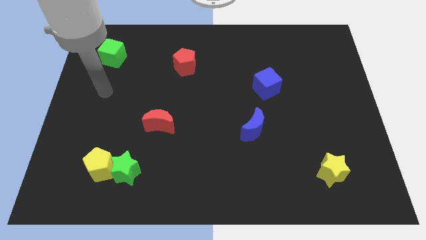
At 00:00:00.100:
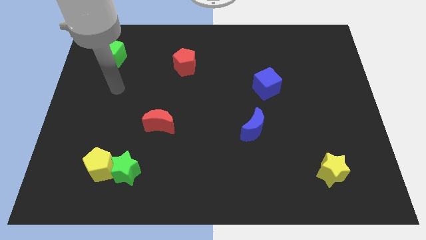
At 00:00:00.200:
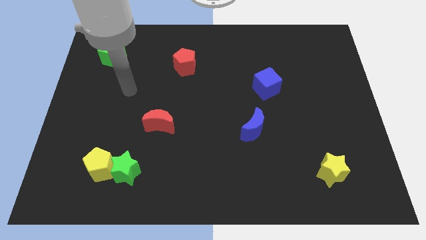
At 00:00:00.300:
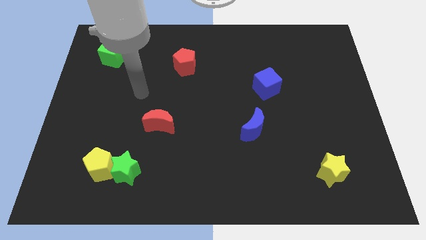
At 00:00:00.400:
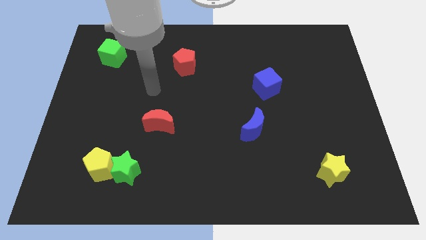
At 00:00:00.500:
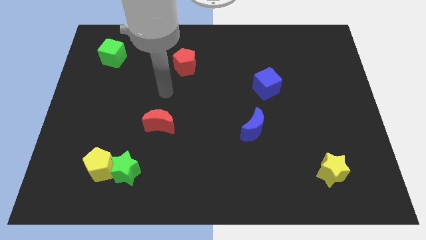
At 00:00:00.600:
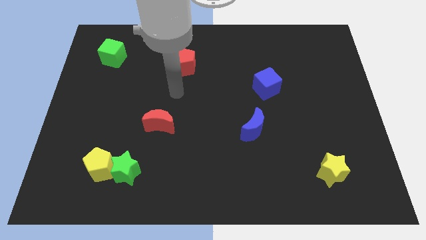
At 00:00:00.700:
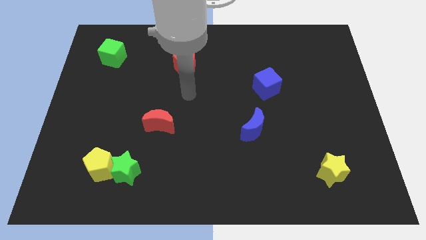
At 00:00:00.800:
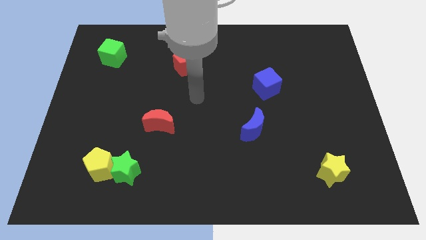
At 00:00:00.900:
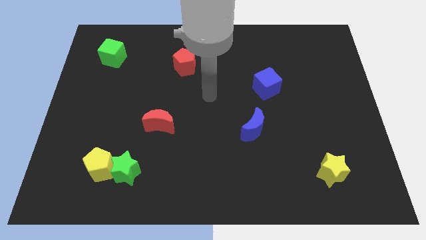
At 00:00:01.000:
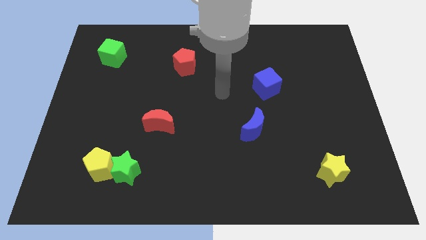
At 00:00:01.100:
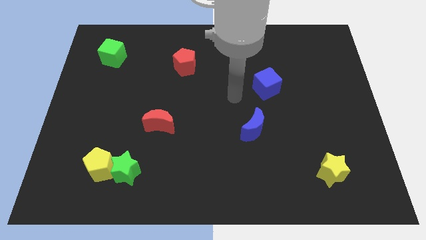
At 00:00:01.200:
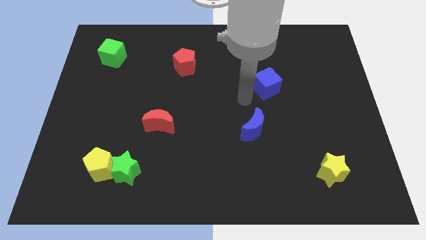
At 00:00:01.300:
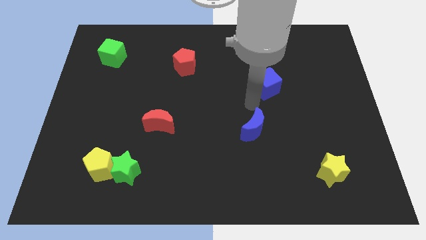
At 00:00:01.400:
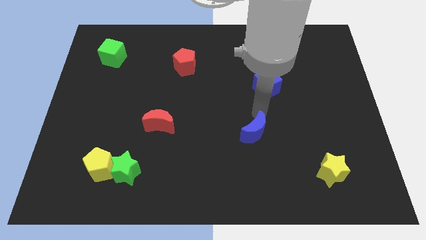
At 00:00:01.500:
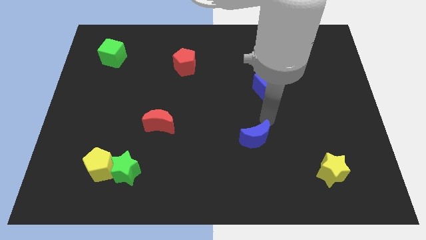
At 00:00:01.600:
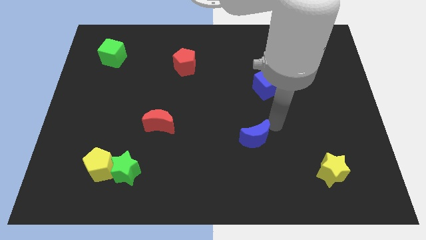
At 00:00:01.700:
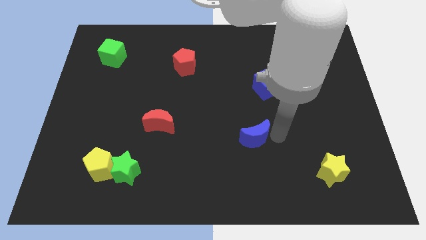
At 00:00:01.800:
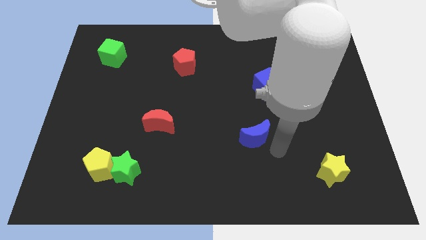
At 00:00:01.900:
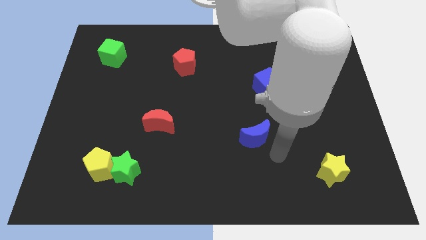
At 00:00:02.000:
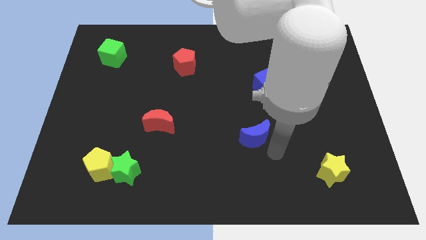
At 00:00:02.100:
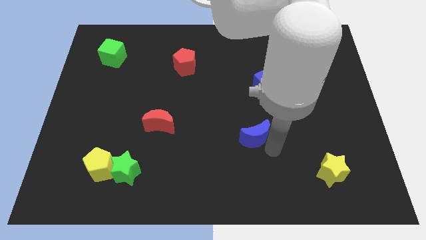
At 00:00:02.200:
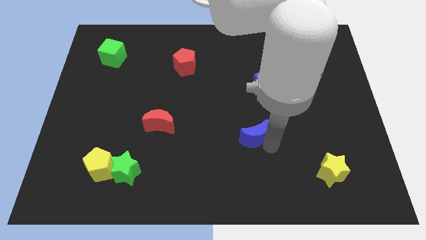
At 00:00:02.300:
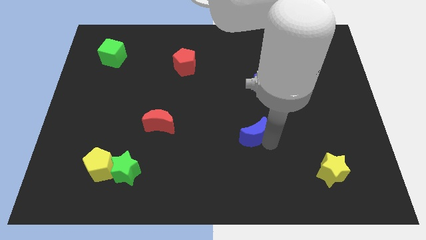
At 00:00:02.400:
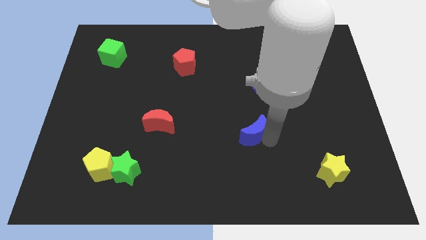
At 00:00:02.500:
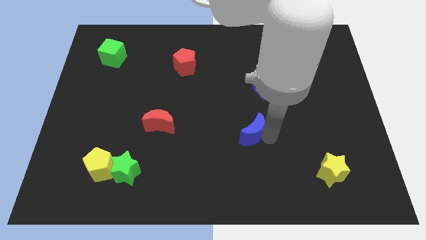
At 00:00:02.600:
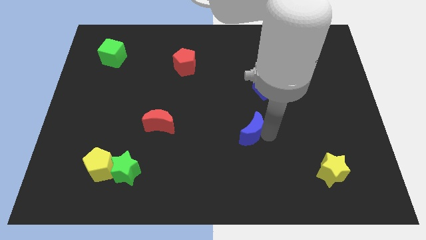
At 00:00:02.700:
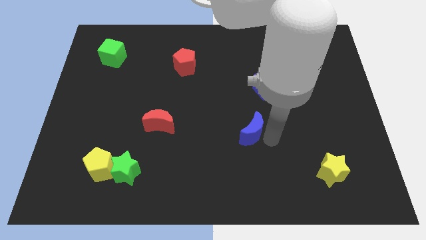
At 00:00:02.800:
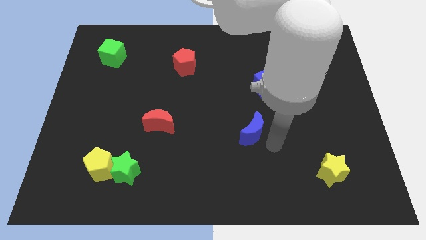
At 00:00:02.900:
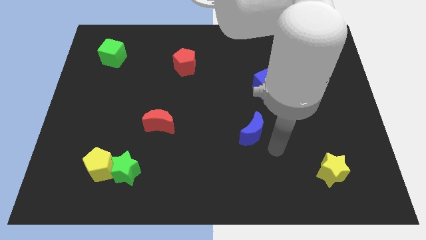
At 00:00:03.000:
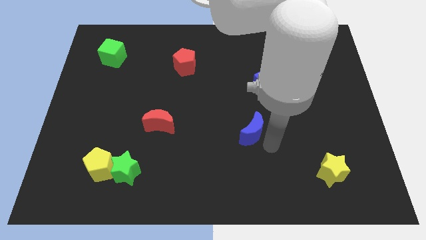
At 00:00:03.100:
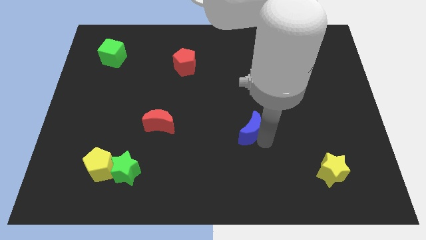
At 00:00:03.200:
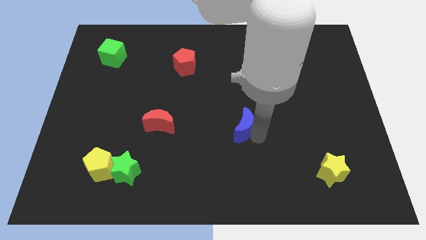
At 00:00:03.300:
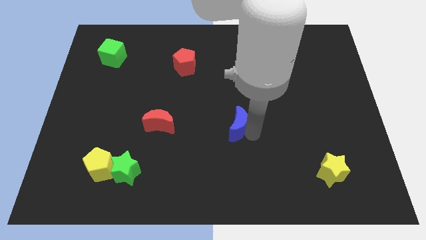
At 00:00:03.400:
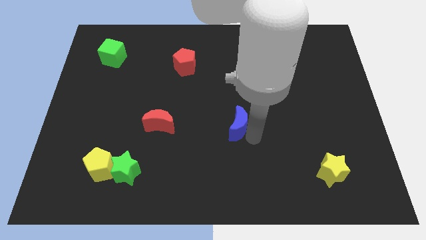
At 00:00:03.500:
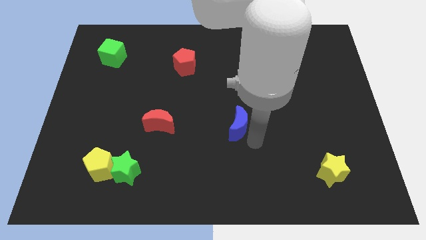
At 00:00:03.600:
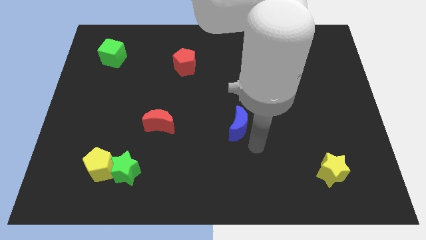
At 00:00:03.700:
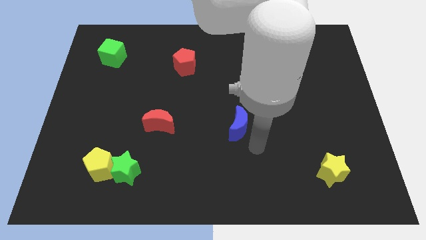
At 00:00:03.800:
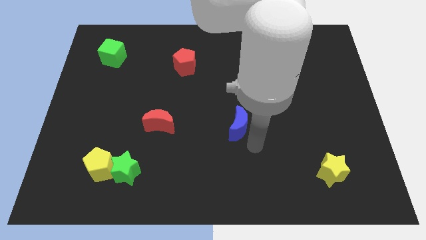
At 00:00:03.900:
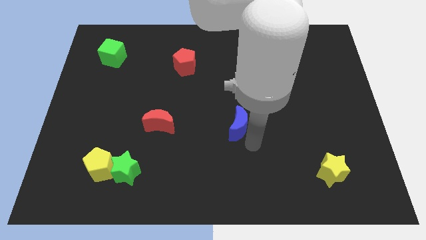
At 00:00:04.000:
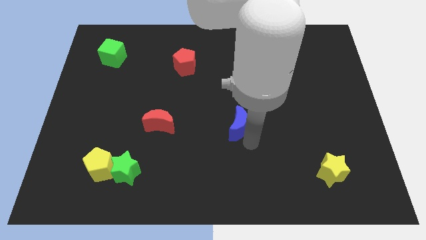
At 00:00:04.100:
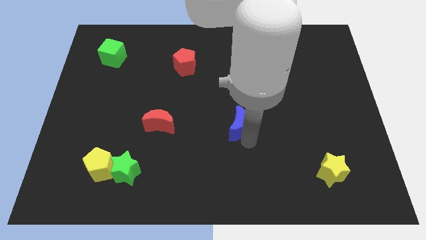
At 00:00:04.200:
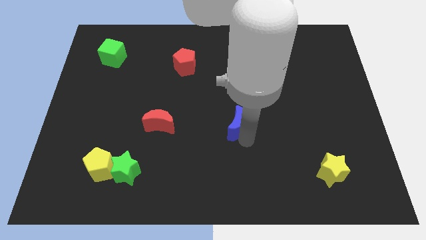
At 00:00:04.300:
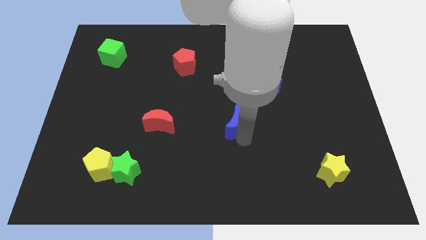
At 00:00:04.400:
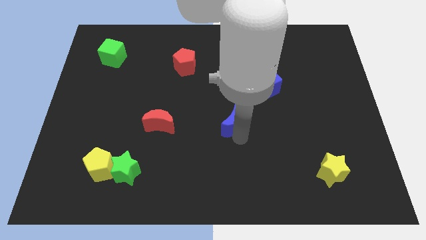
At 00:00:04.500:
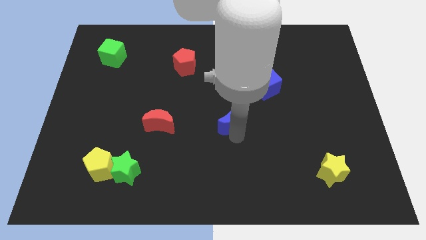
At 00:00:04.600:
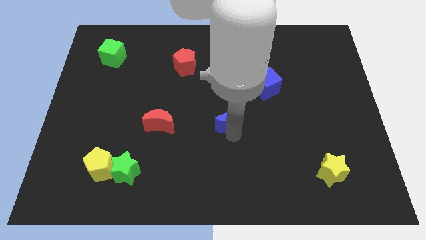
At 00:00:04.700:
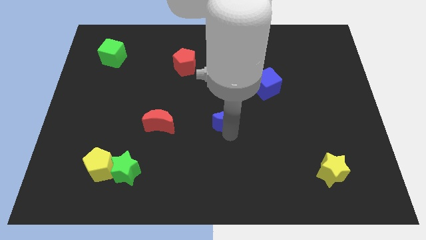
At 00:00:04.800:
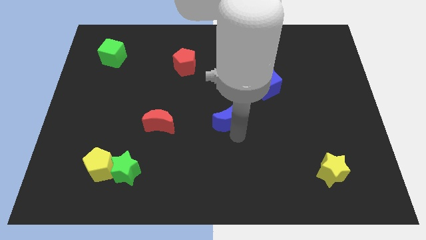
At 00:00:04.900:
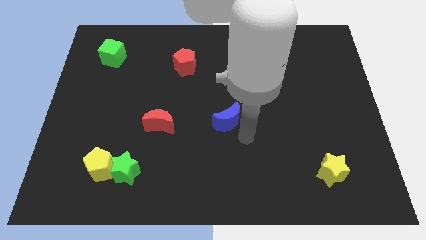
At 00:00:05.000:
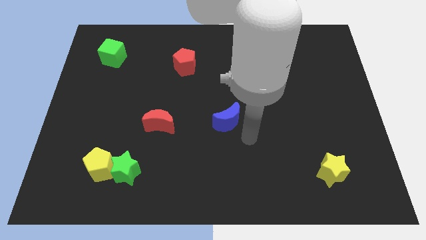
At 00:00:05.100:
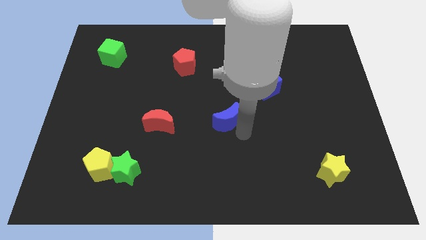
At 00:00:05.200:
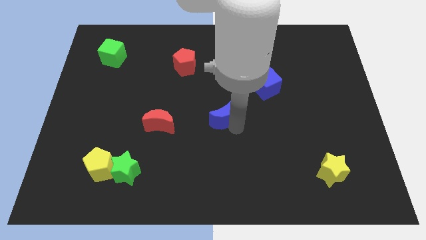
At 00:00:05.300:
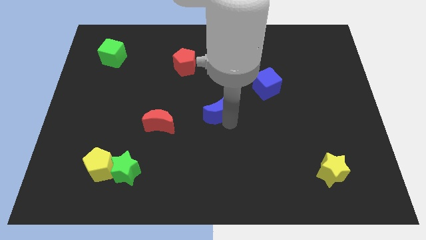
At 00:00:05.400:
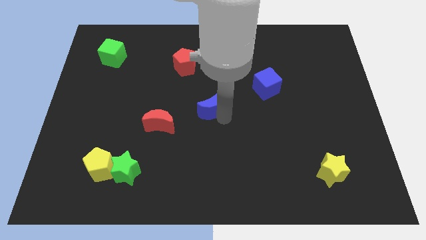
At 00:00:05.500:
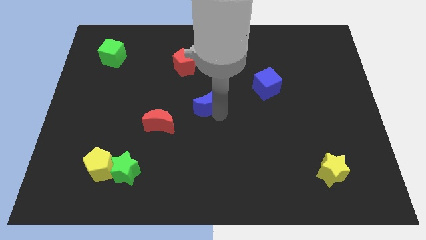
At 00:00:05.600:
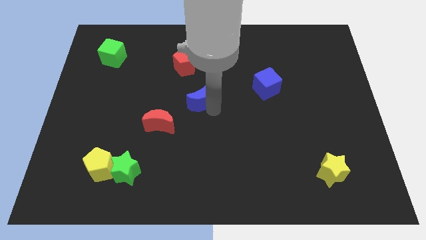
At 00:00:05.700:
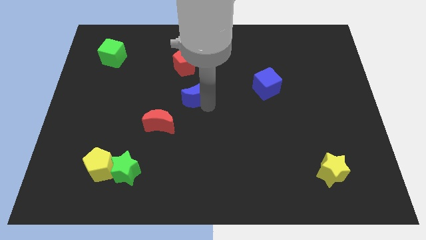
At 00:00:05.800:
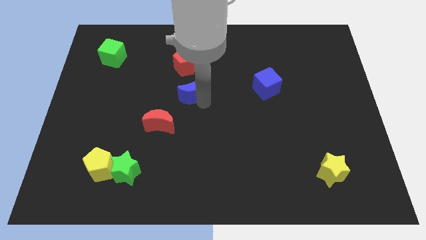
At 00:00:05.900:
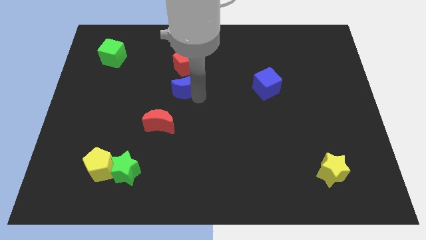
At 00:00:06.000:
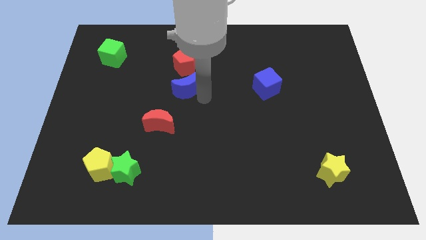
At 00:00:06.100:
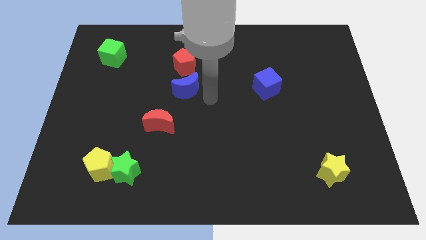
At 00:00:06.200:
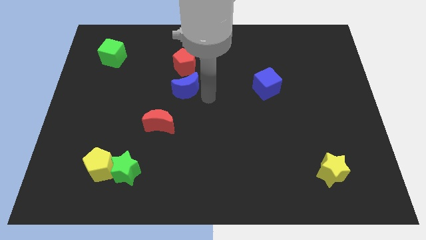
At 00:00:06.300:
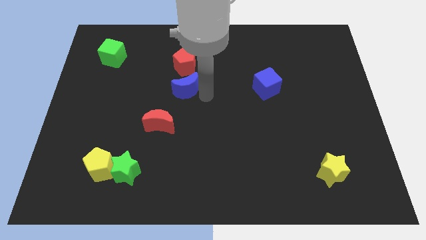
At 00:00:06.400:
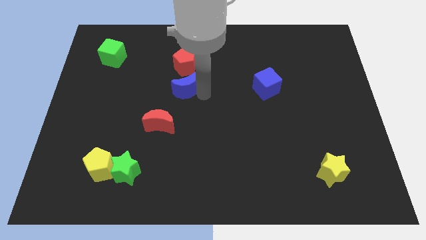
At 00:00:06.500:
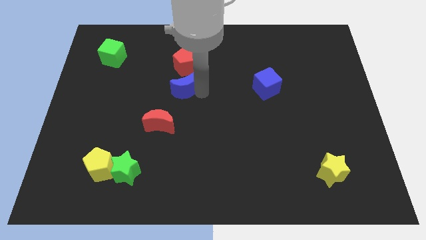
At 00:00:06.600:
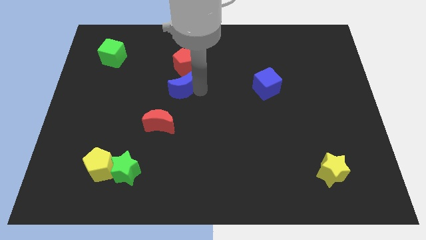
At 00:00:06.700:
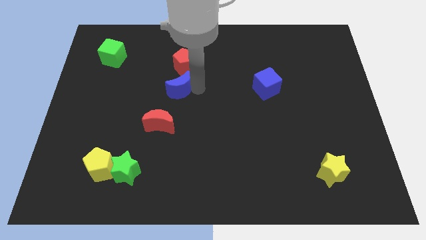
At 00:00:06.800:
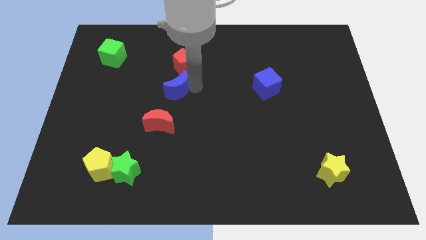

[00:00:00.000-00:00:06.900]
move the blue moon diagonally down and to the left of the red pentagon
